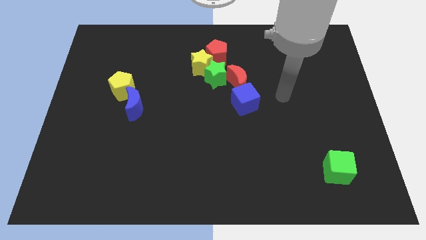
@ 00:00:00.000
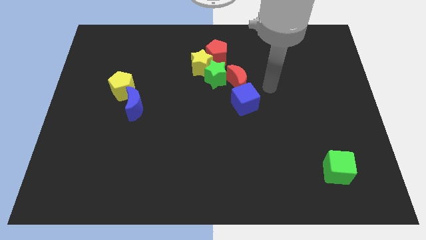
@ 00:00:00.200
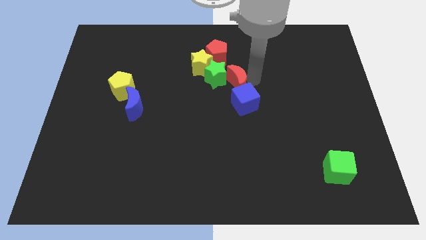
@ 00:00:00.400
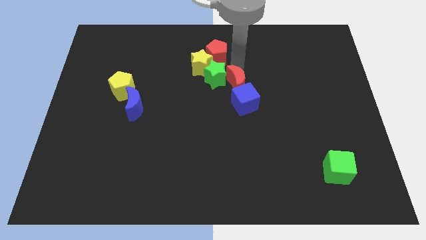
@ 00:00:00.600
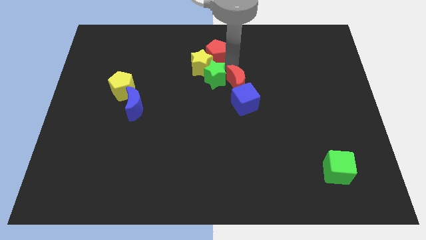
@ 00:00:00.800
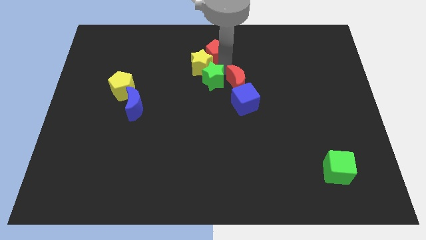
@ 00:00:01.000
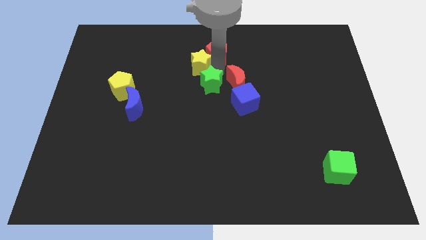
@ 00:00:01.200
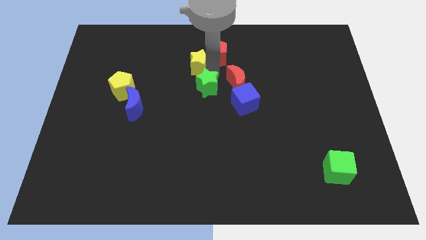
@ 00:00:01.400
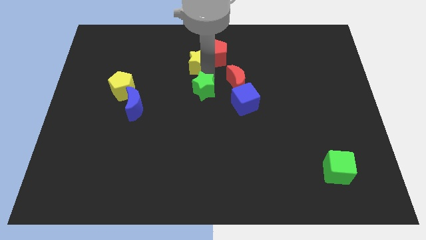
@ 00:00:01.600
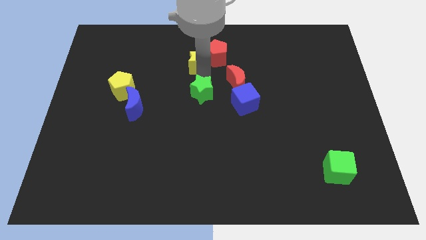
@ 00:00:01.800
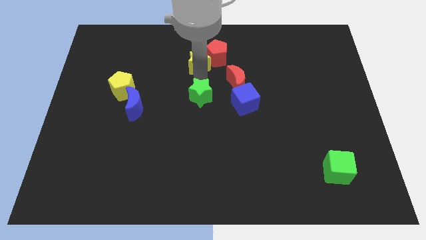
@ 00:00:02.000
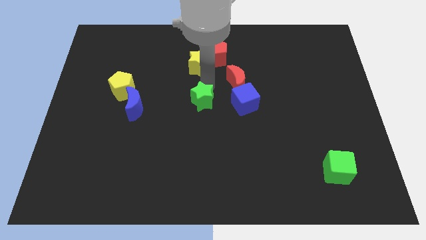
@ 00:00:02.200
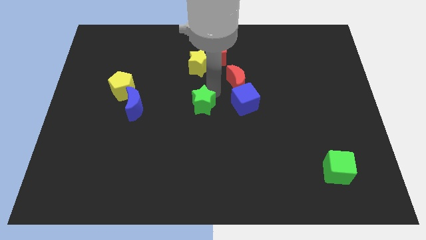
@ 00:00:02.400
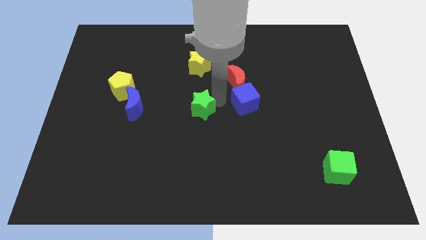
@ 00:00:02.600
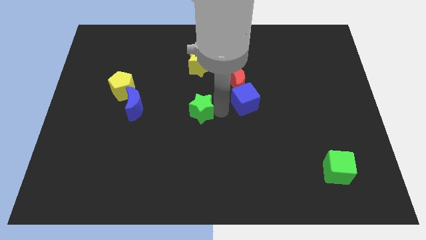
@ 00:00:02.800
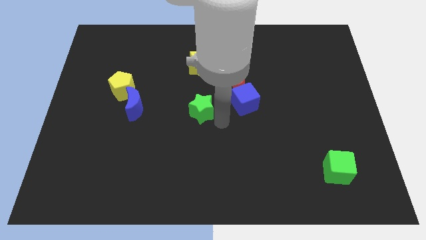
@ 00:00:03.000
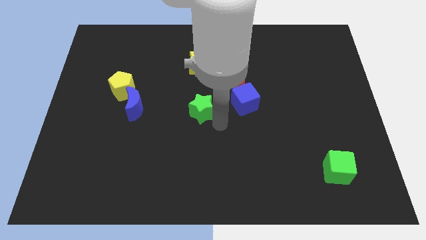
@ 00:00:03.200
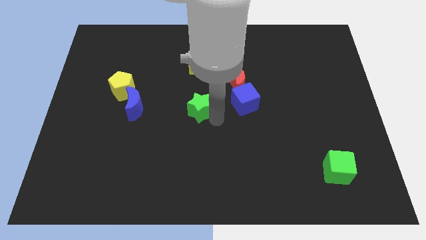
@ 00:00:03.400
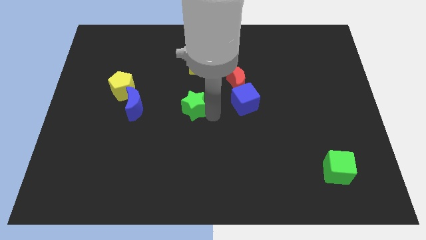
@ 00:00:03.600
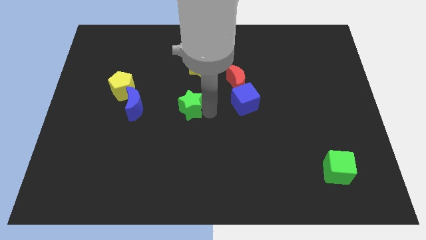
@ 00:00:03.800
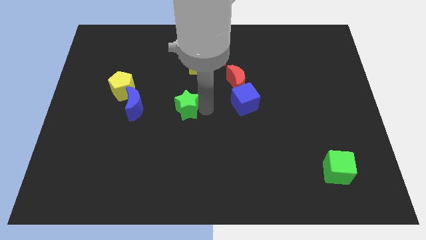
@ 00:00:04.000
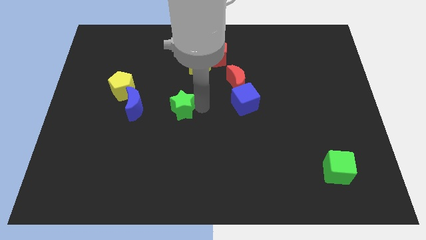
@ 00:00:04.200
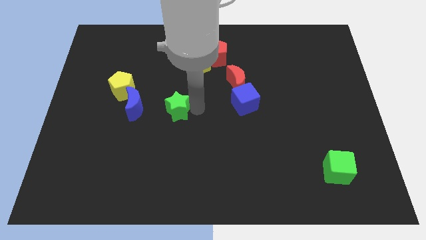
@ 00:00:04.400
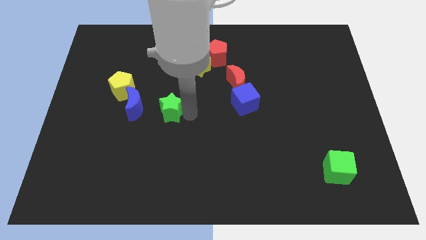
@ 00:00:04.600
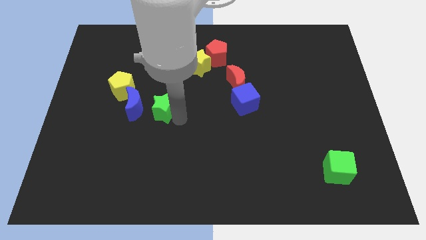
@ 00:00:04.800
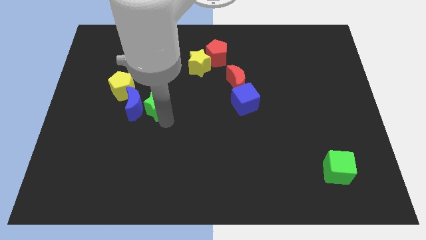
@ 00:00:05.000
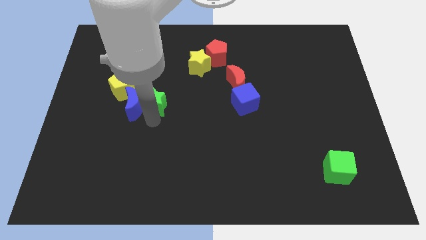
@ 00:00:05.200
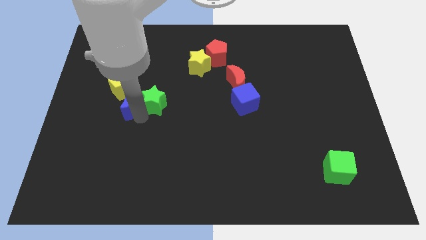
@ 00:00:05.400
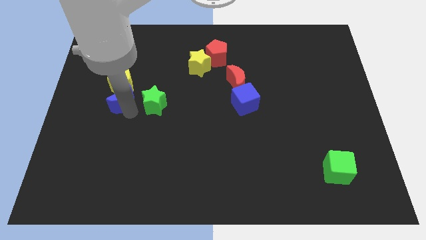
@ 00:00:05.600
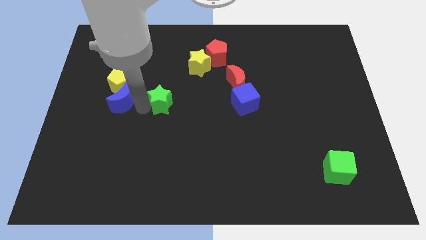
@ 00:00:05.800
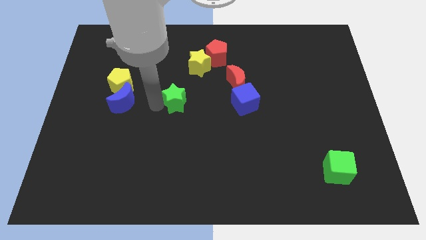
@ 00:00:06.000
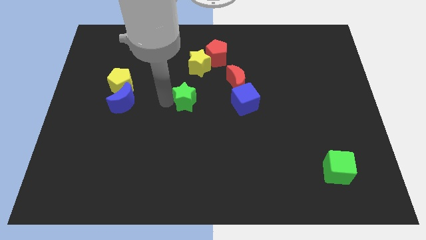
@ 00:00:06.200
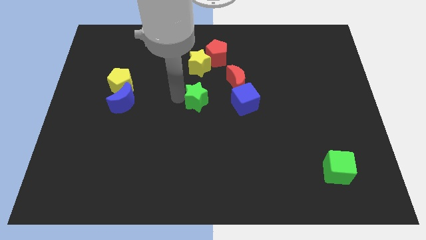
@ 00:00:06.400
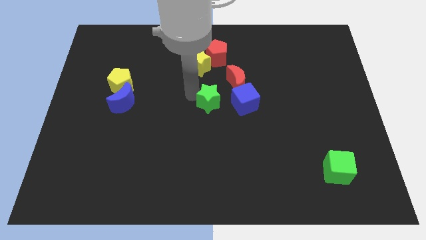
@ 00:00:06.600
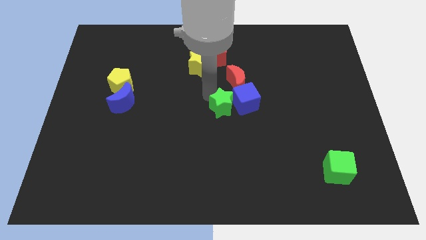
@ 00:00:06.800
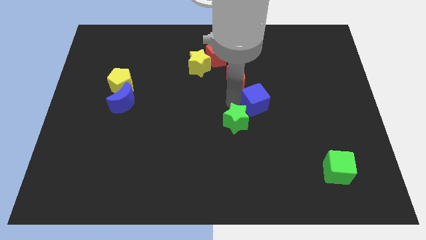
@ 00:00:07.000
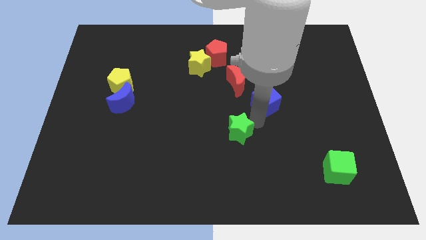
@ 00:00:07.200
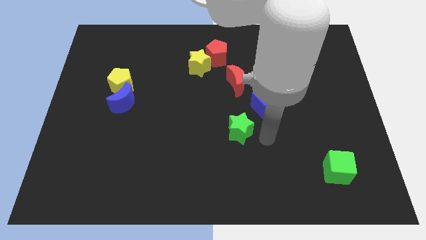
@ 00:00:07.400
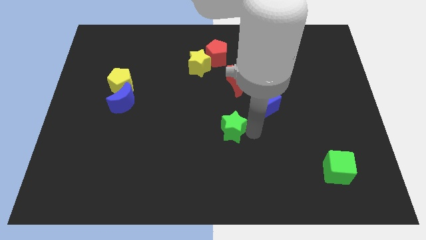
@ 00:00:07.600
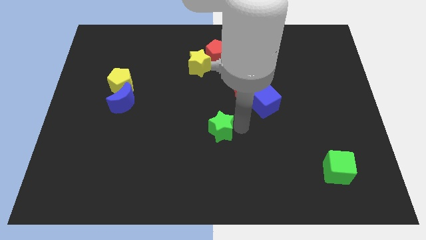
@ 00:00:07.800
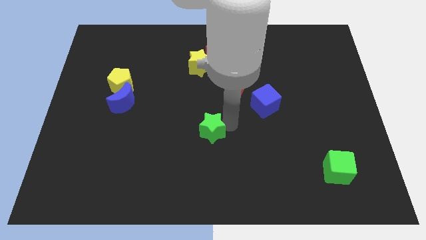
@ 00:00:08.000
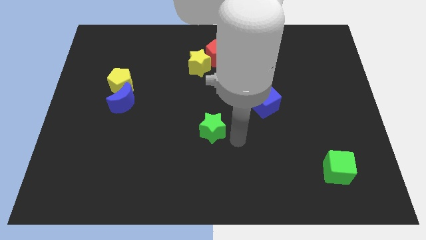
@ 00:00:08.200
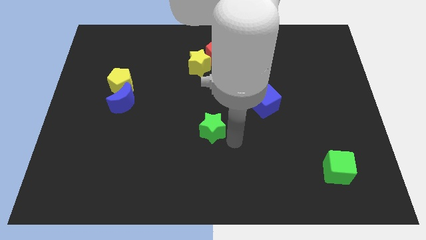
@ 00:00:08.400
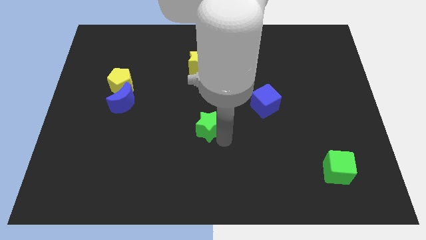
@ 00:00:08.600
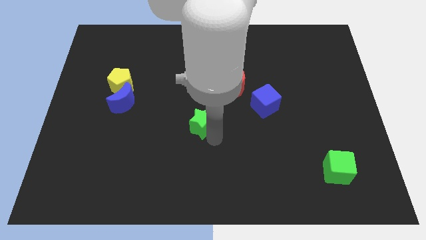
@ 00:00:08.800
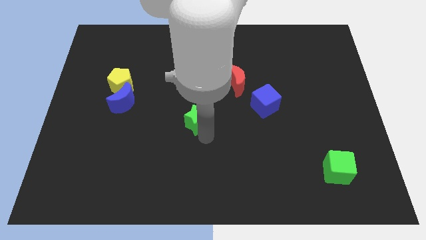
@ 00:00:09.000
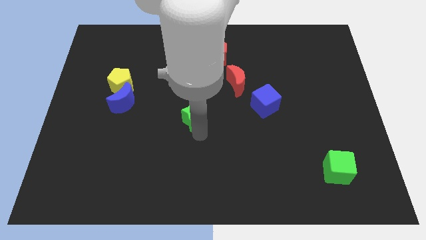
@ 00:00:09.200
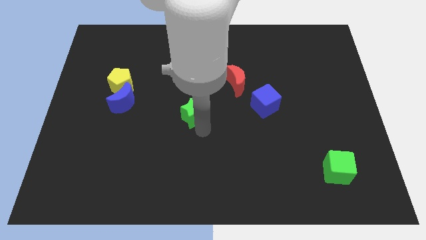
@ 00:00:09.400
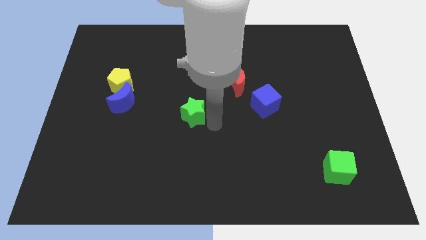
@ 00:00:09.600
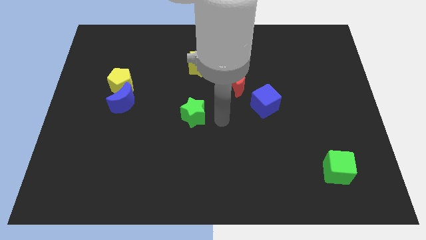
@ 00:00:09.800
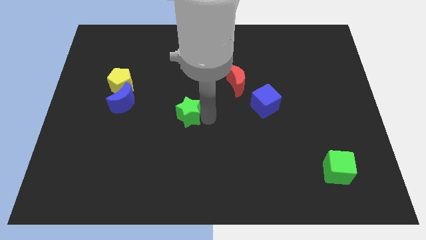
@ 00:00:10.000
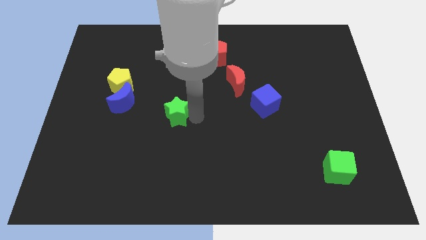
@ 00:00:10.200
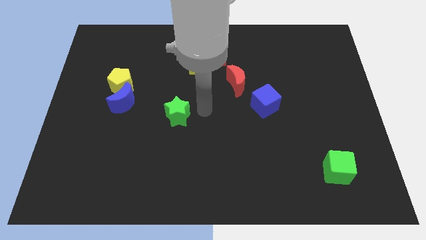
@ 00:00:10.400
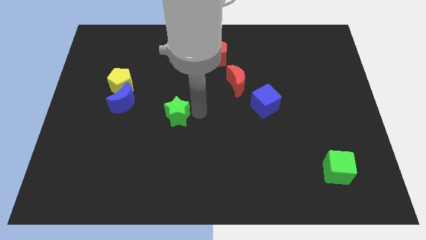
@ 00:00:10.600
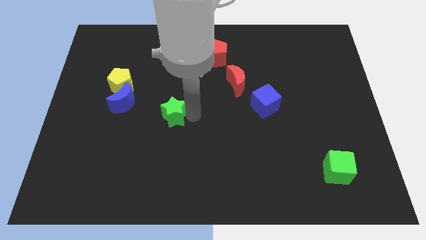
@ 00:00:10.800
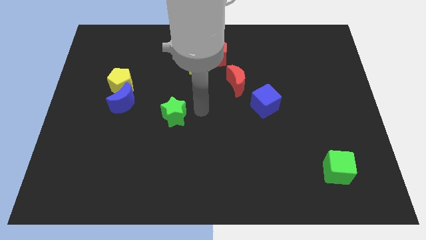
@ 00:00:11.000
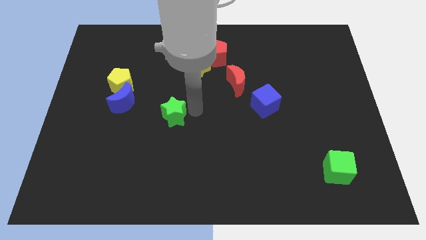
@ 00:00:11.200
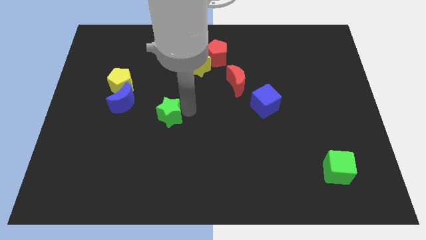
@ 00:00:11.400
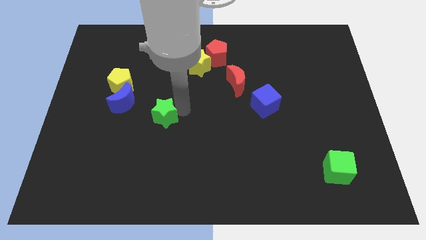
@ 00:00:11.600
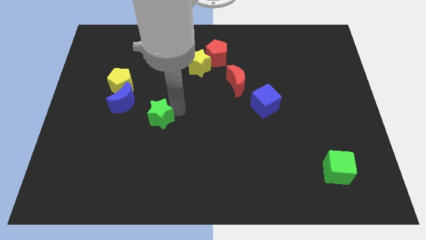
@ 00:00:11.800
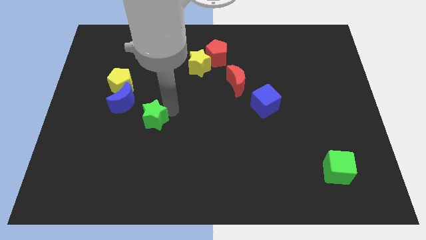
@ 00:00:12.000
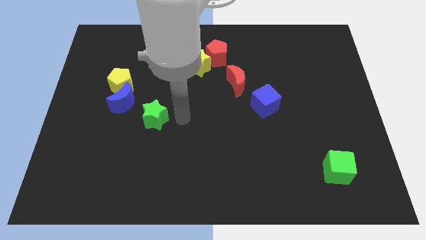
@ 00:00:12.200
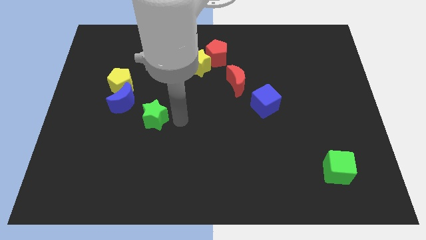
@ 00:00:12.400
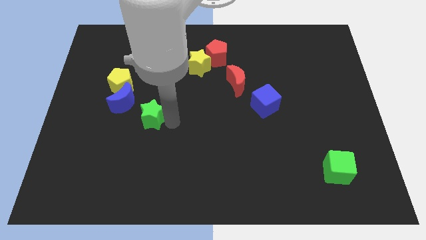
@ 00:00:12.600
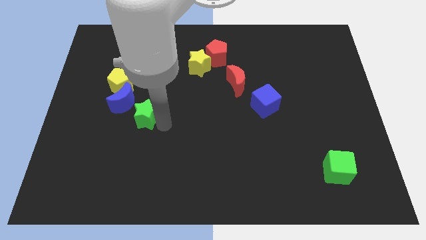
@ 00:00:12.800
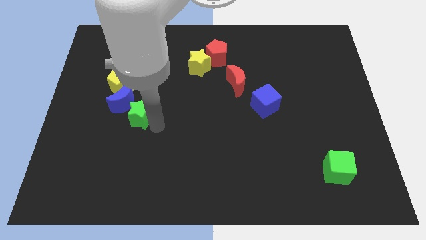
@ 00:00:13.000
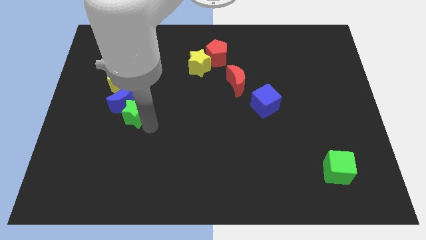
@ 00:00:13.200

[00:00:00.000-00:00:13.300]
push the green star to the bottom of the yellow pentagon

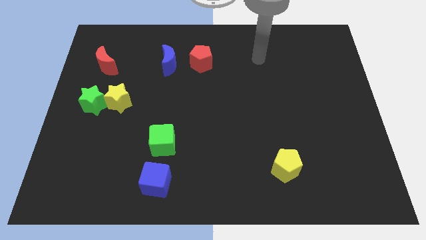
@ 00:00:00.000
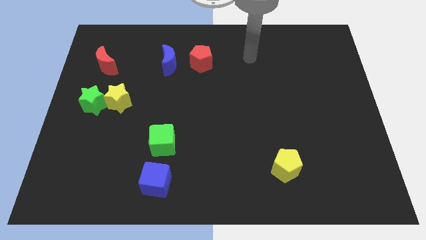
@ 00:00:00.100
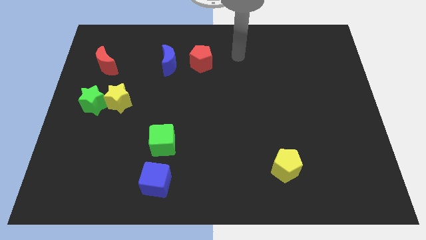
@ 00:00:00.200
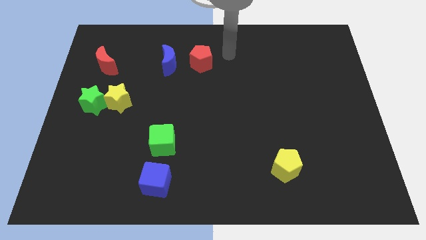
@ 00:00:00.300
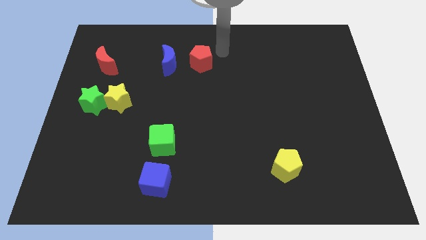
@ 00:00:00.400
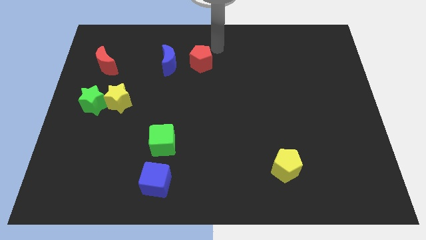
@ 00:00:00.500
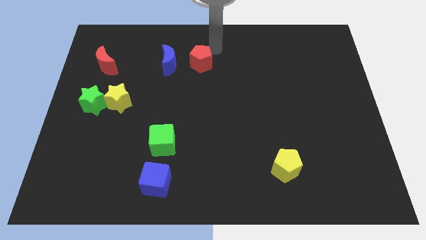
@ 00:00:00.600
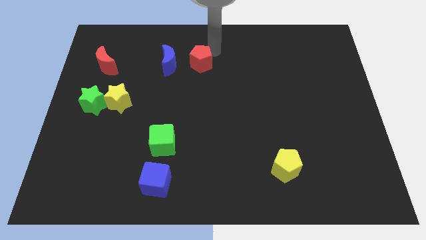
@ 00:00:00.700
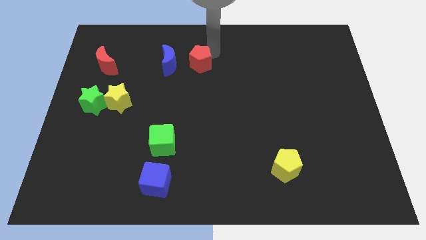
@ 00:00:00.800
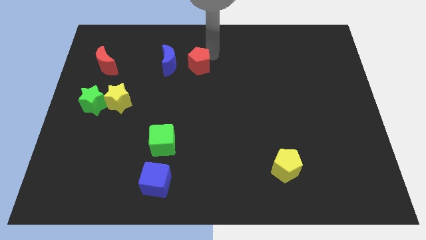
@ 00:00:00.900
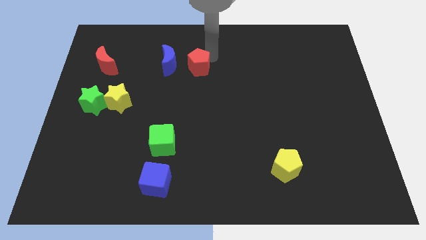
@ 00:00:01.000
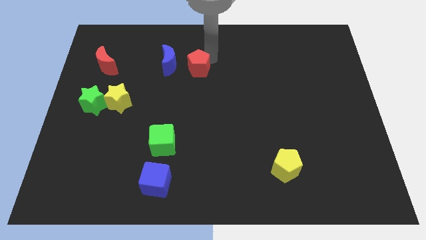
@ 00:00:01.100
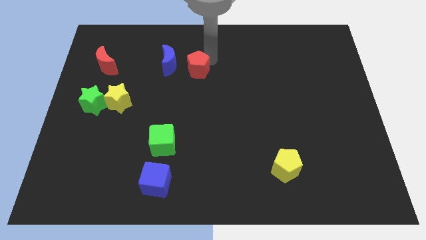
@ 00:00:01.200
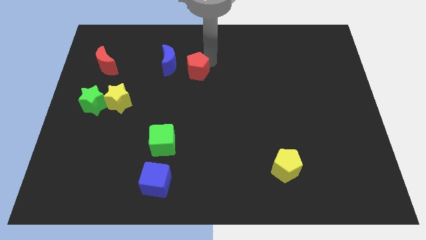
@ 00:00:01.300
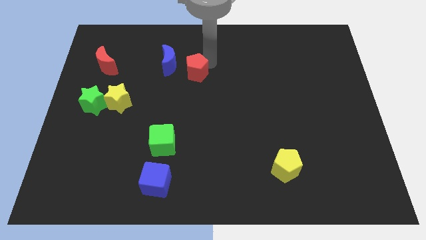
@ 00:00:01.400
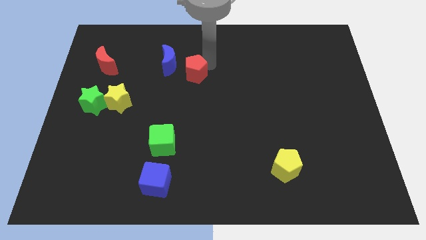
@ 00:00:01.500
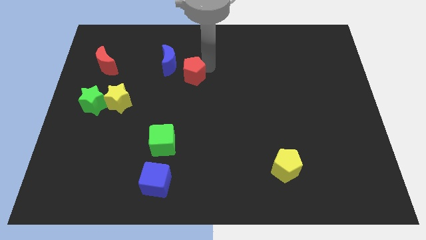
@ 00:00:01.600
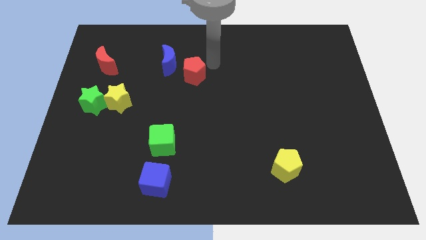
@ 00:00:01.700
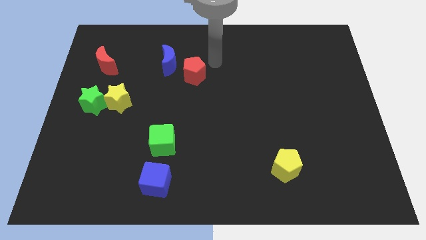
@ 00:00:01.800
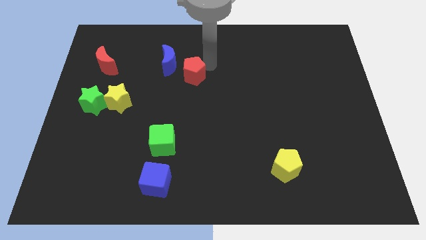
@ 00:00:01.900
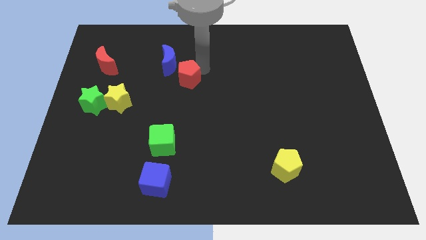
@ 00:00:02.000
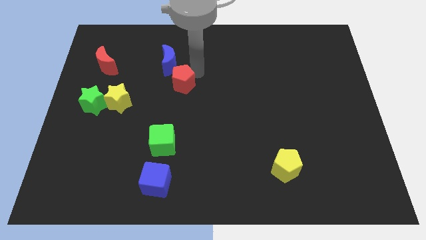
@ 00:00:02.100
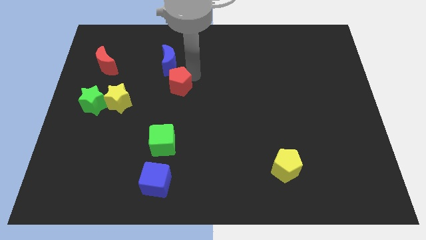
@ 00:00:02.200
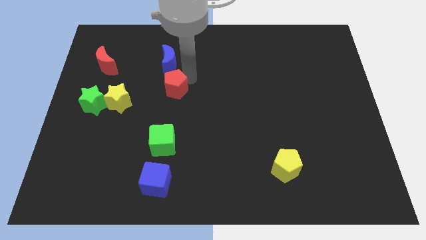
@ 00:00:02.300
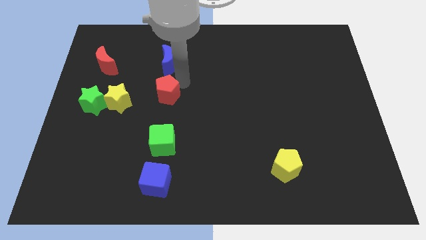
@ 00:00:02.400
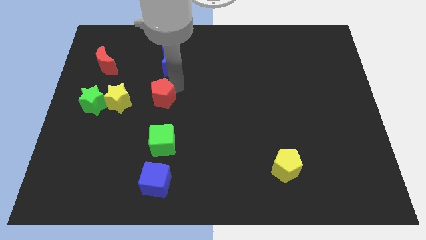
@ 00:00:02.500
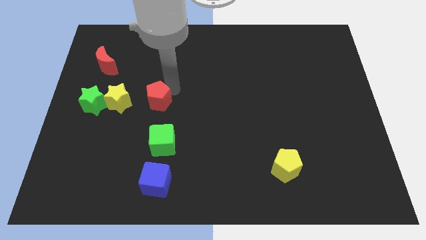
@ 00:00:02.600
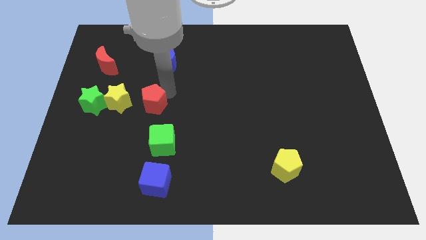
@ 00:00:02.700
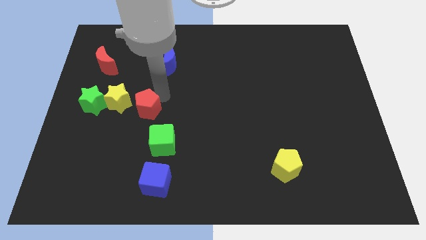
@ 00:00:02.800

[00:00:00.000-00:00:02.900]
put the red pentagon to the bottom right of the yellow star
